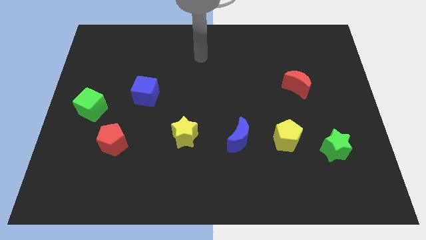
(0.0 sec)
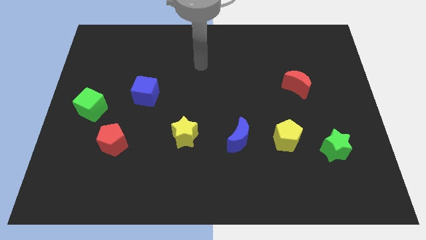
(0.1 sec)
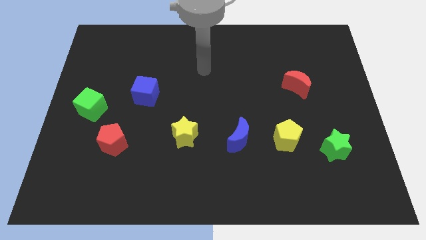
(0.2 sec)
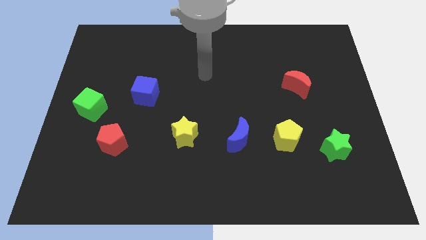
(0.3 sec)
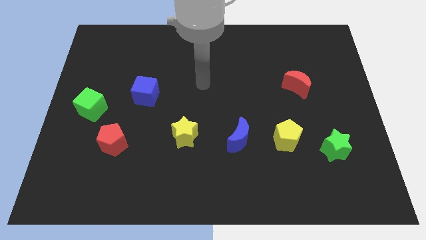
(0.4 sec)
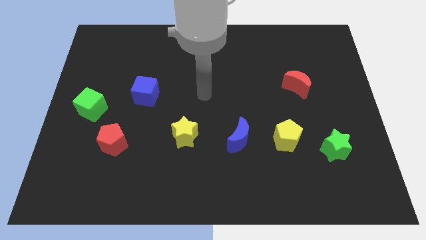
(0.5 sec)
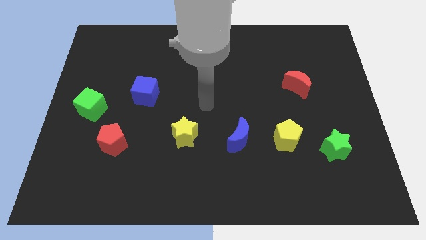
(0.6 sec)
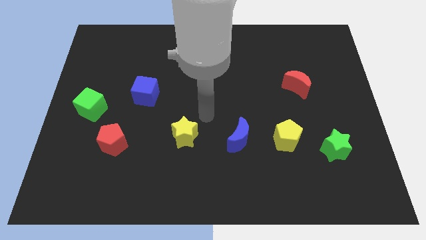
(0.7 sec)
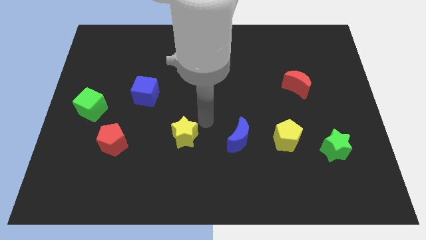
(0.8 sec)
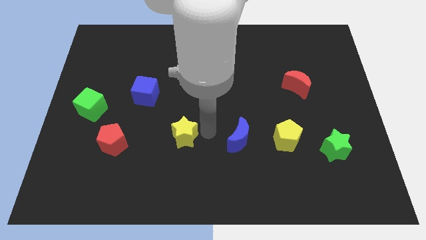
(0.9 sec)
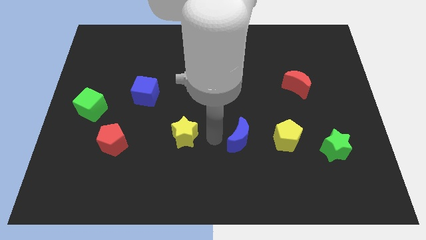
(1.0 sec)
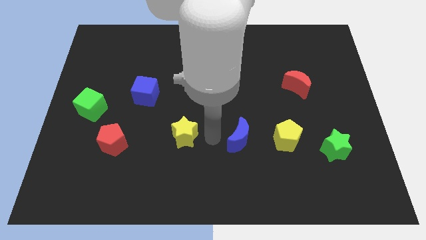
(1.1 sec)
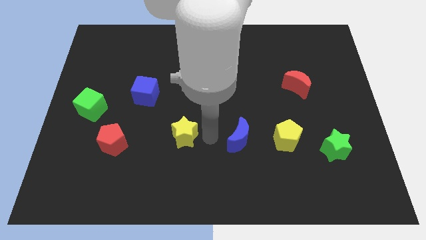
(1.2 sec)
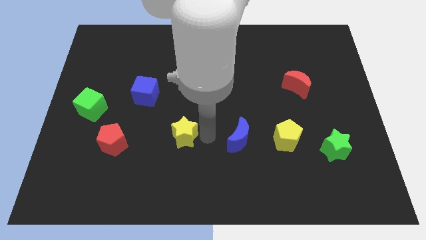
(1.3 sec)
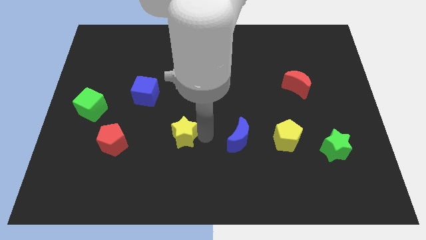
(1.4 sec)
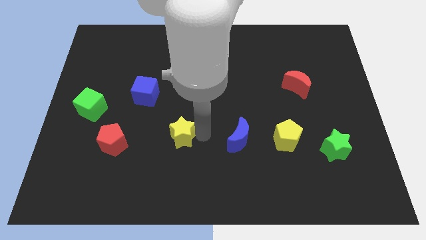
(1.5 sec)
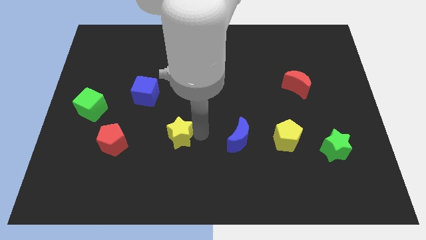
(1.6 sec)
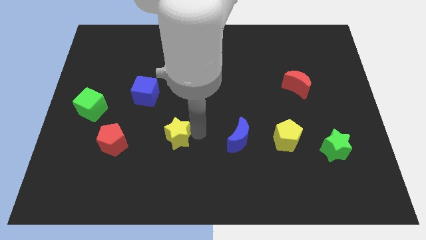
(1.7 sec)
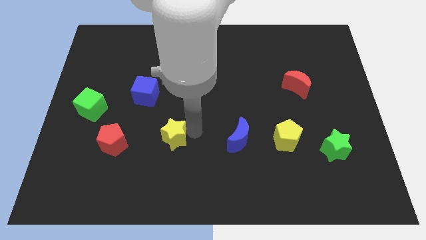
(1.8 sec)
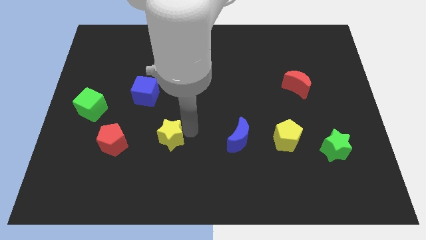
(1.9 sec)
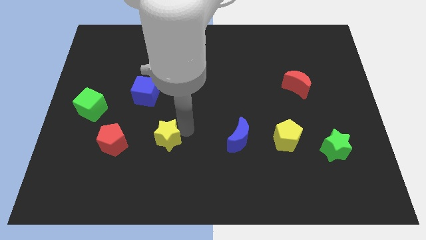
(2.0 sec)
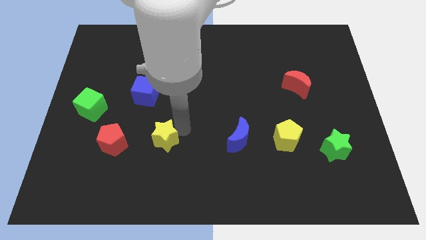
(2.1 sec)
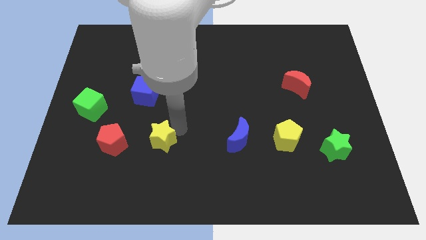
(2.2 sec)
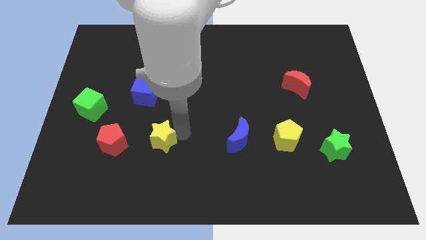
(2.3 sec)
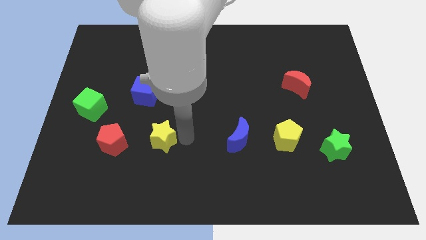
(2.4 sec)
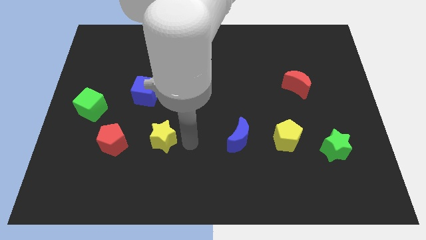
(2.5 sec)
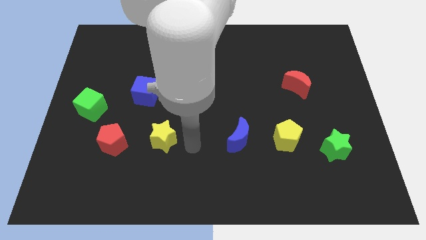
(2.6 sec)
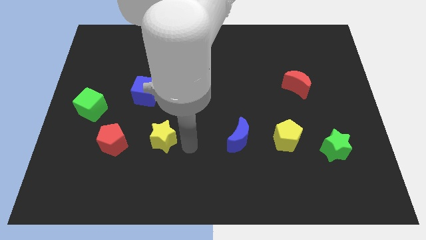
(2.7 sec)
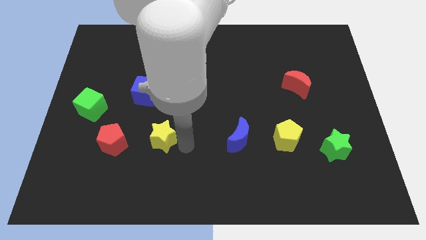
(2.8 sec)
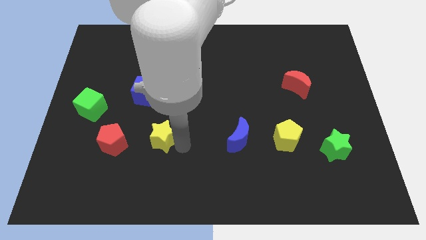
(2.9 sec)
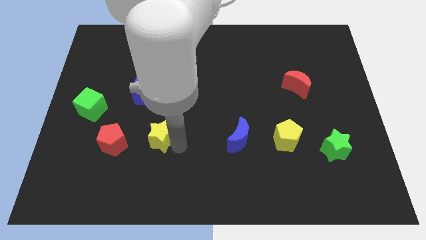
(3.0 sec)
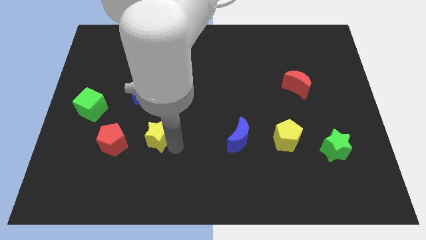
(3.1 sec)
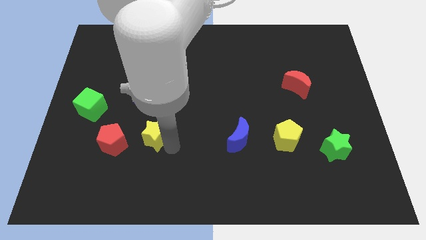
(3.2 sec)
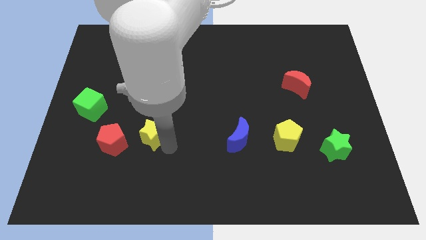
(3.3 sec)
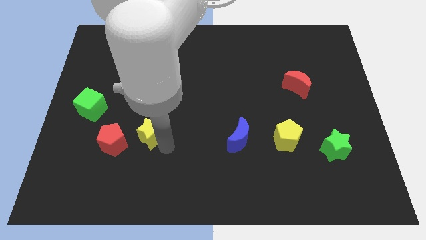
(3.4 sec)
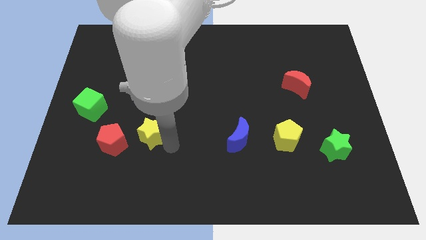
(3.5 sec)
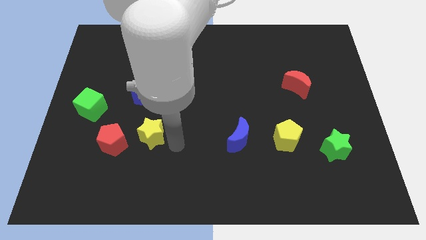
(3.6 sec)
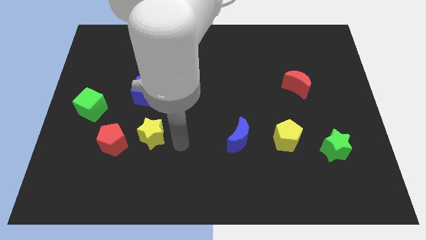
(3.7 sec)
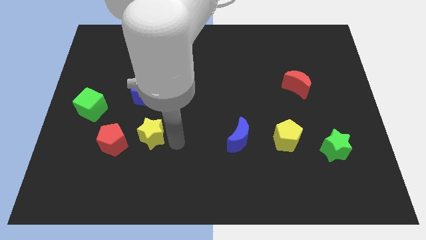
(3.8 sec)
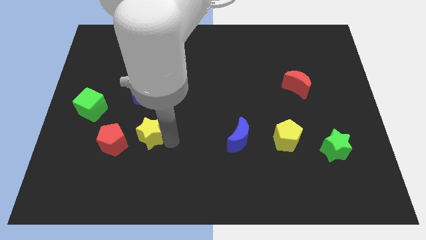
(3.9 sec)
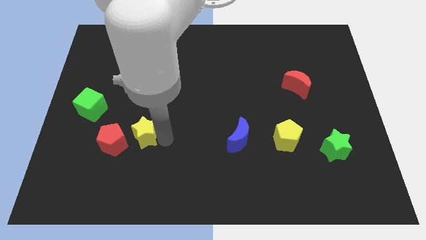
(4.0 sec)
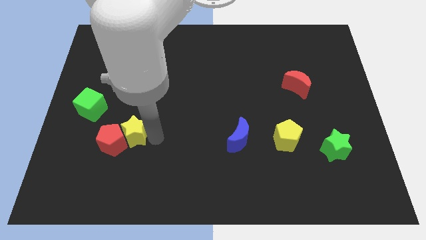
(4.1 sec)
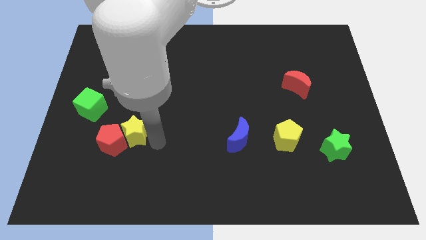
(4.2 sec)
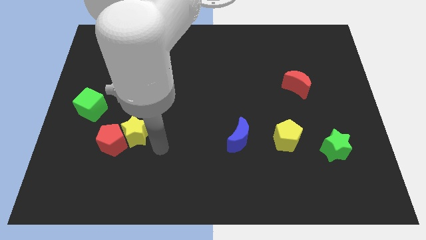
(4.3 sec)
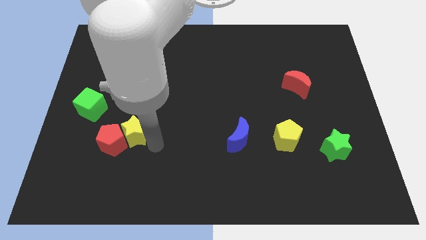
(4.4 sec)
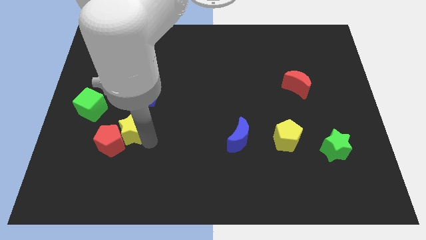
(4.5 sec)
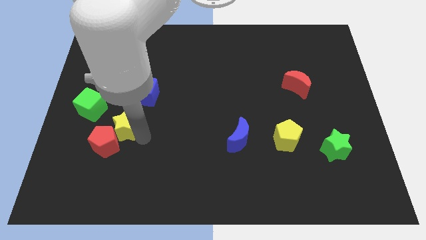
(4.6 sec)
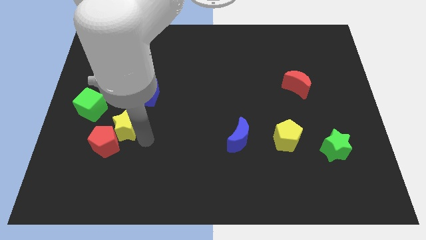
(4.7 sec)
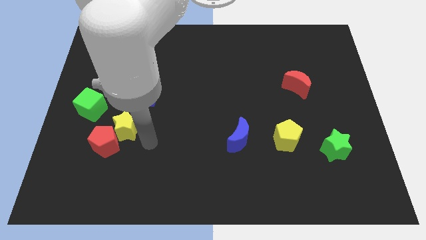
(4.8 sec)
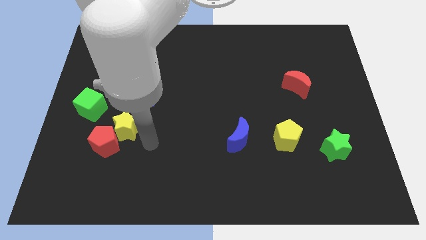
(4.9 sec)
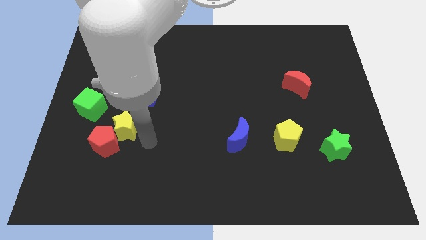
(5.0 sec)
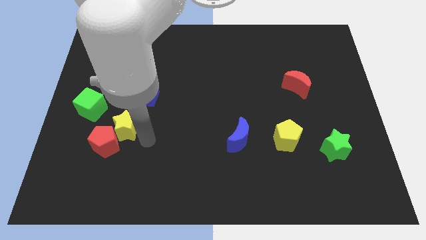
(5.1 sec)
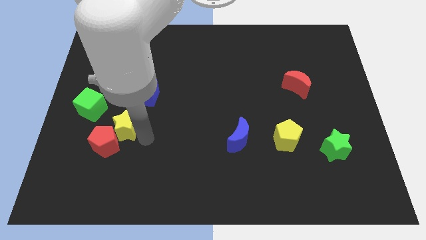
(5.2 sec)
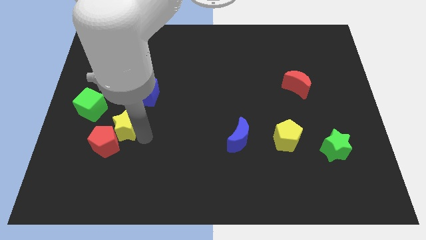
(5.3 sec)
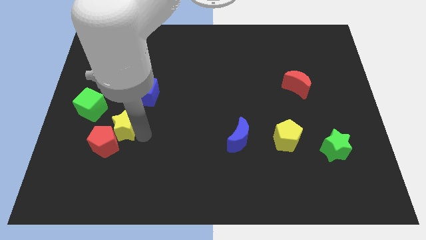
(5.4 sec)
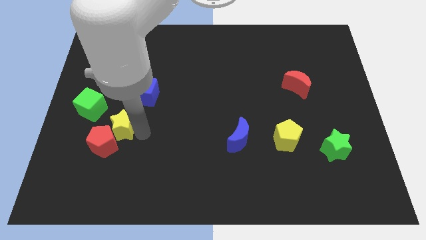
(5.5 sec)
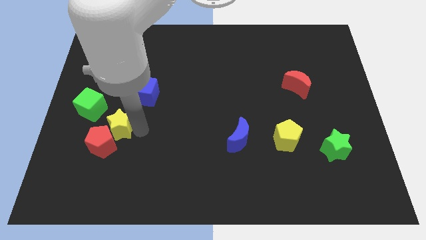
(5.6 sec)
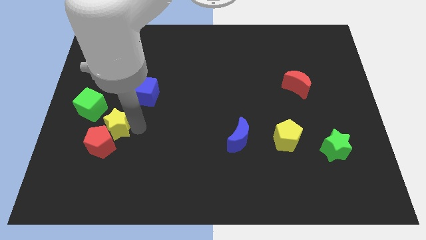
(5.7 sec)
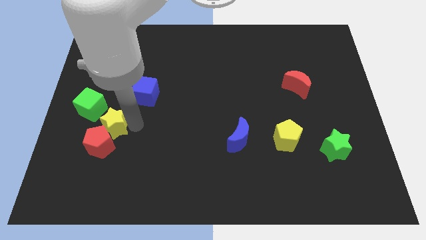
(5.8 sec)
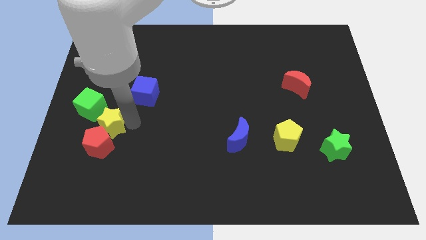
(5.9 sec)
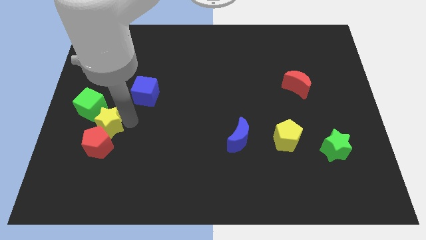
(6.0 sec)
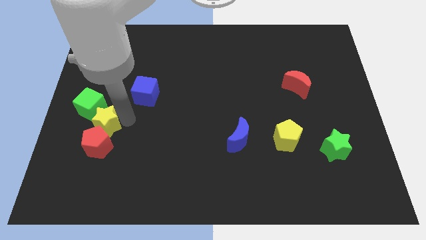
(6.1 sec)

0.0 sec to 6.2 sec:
move the yellow star diagonally up and to the left of the red pentagon

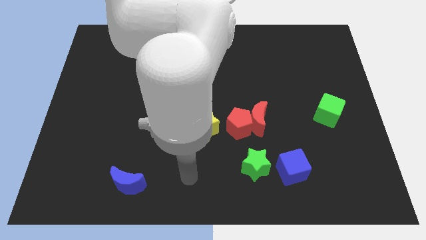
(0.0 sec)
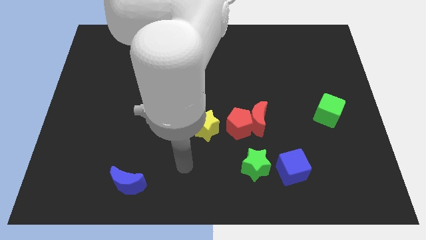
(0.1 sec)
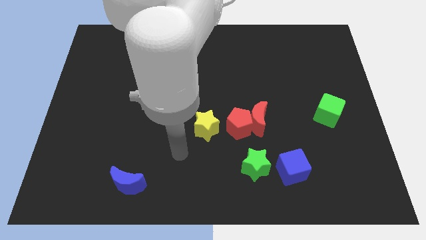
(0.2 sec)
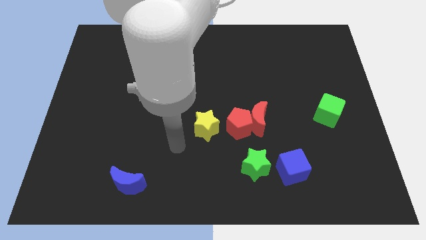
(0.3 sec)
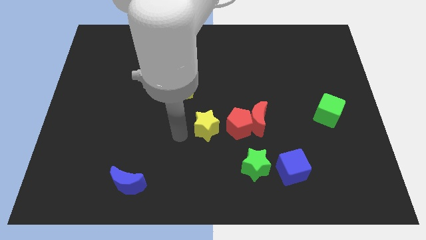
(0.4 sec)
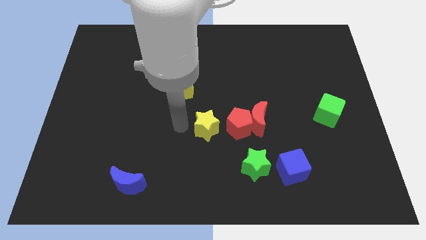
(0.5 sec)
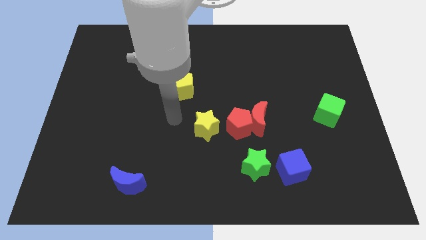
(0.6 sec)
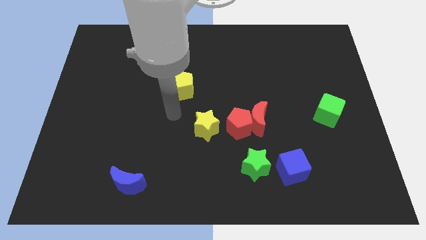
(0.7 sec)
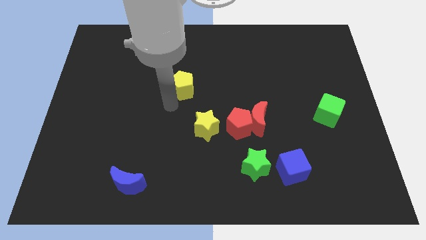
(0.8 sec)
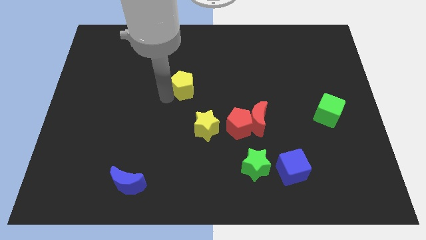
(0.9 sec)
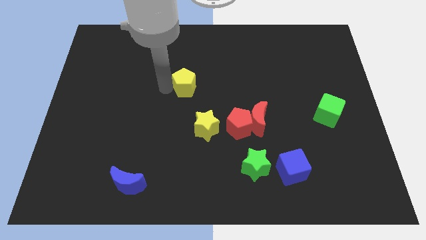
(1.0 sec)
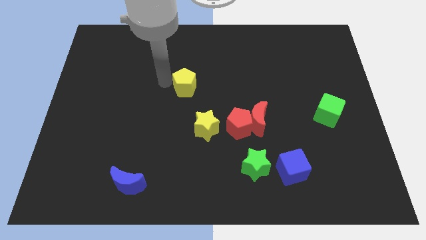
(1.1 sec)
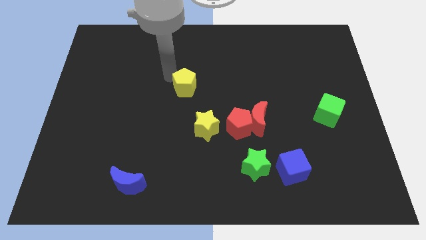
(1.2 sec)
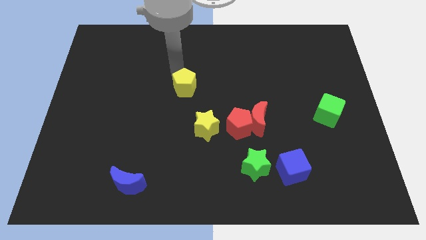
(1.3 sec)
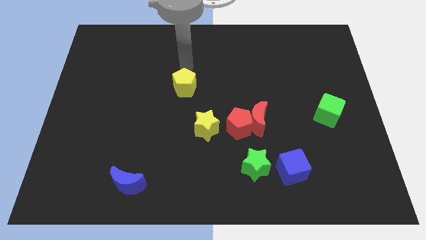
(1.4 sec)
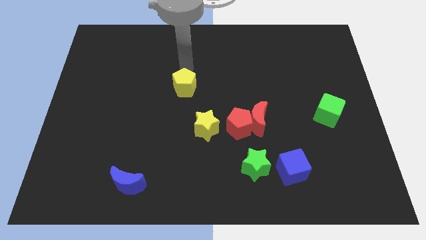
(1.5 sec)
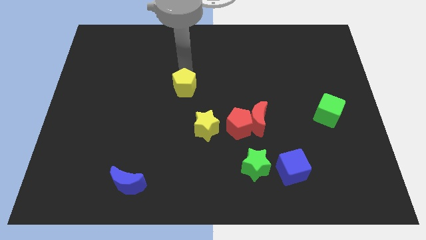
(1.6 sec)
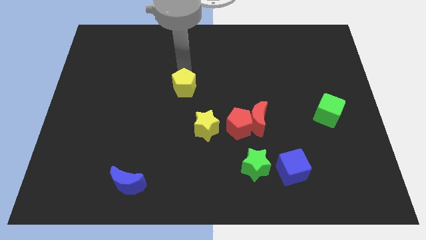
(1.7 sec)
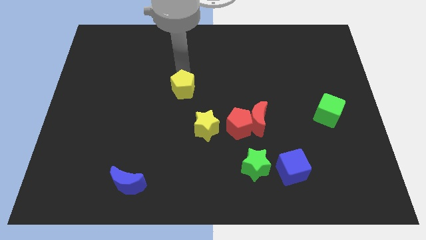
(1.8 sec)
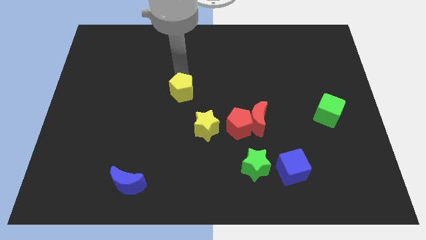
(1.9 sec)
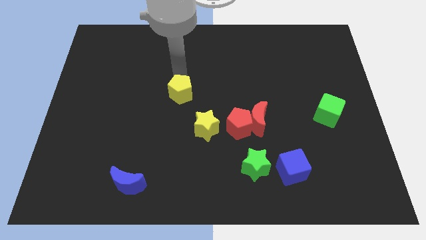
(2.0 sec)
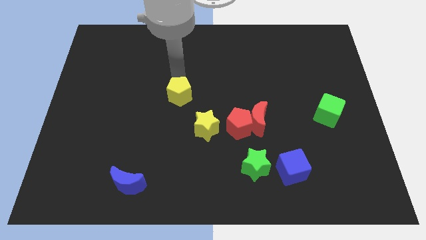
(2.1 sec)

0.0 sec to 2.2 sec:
slide the yellow pentagon to the top left of the yellow star
